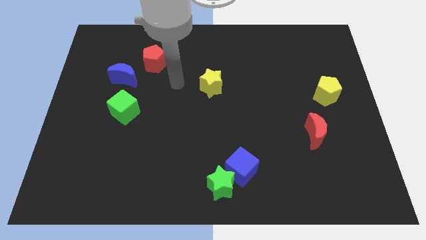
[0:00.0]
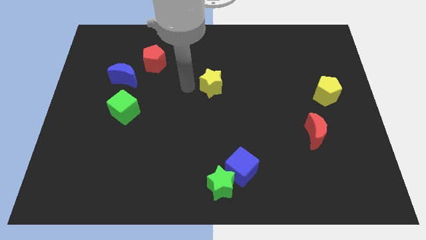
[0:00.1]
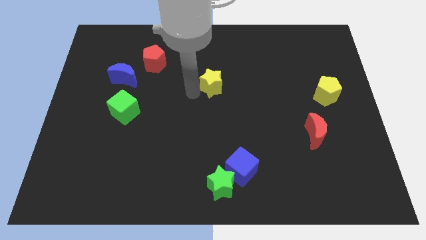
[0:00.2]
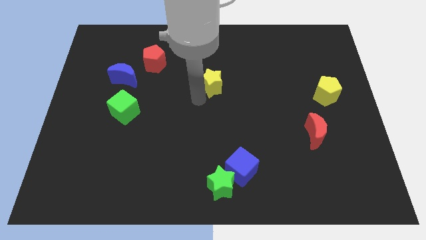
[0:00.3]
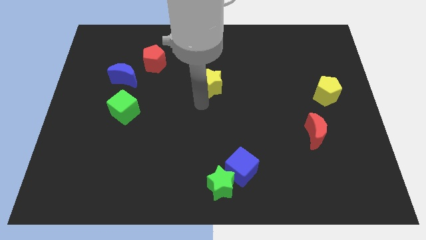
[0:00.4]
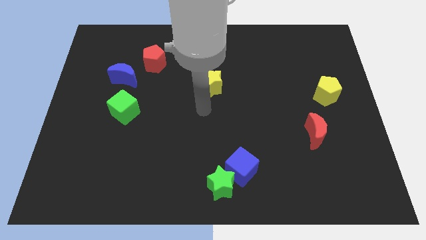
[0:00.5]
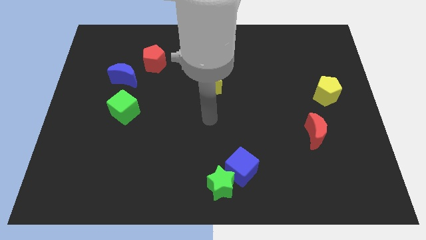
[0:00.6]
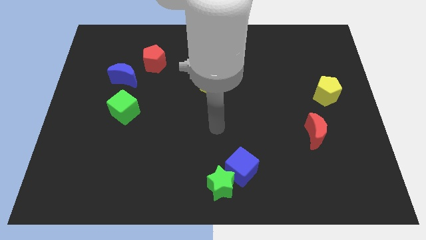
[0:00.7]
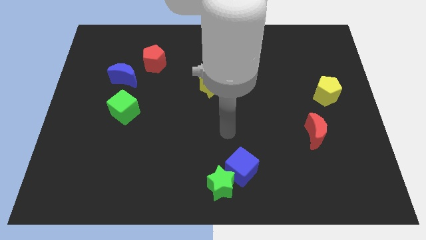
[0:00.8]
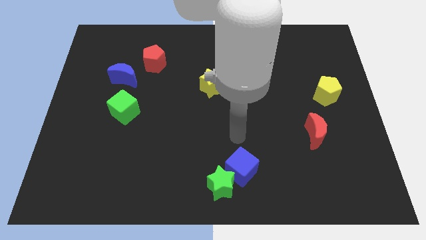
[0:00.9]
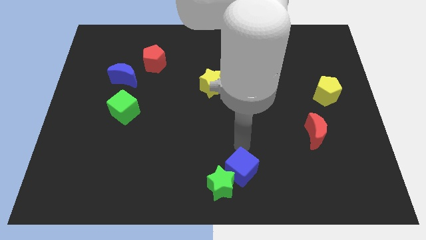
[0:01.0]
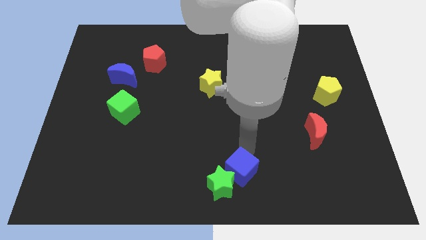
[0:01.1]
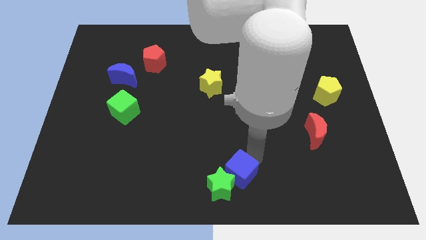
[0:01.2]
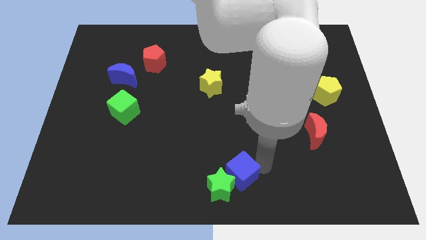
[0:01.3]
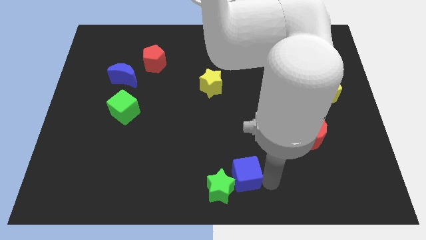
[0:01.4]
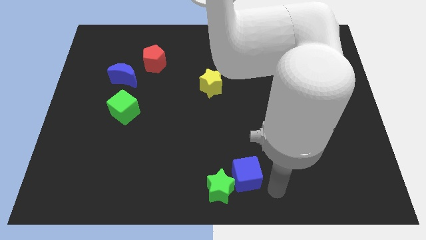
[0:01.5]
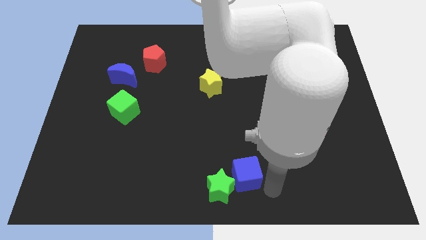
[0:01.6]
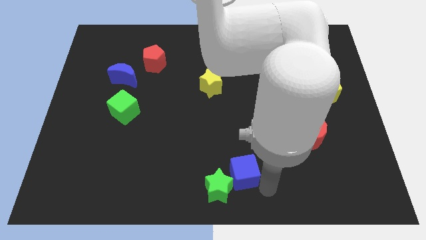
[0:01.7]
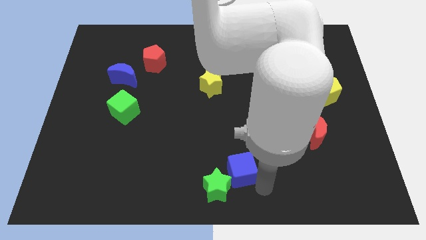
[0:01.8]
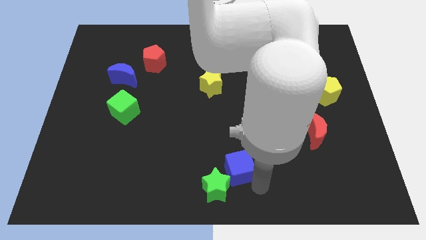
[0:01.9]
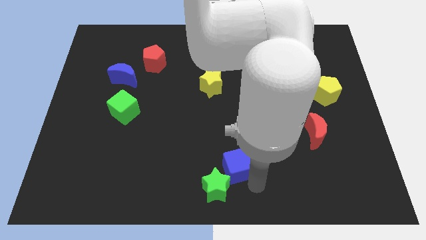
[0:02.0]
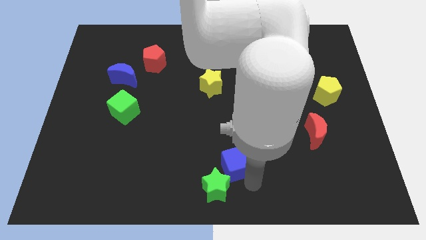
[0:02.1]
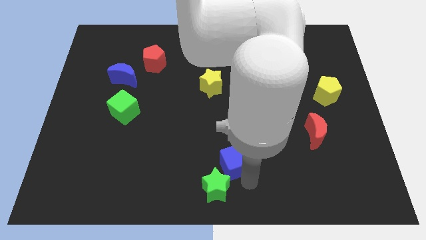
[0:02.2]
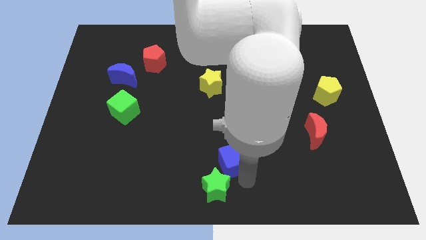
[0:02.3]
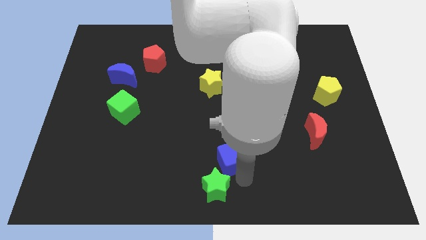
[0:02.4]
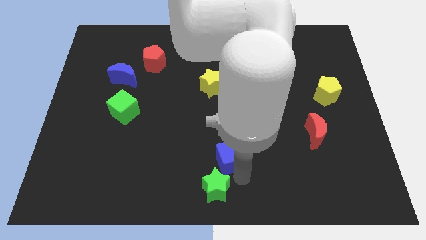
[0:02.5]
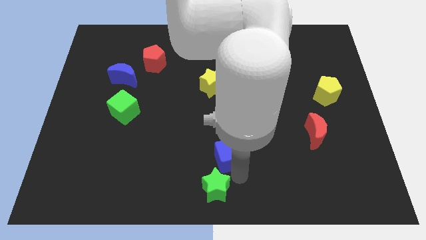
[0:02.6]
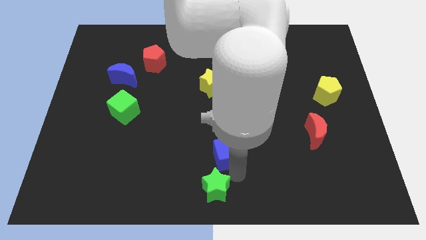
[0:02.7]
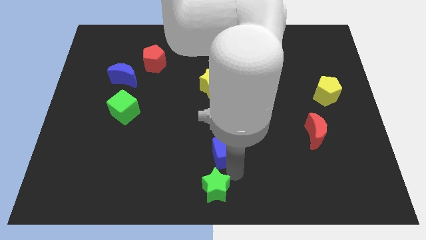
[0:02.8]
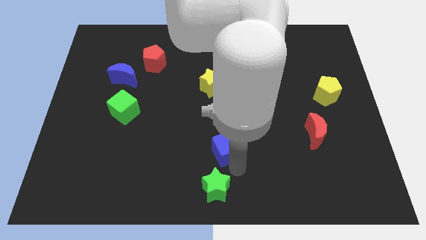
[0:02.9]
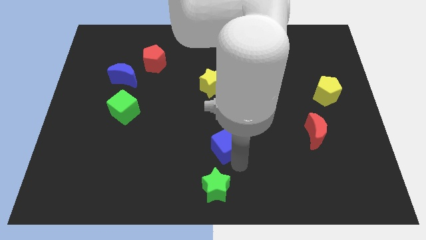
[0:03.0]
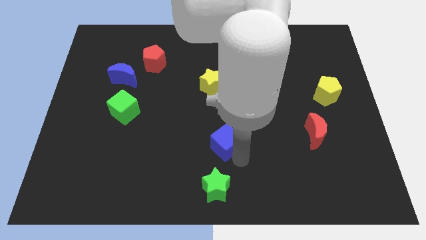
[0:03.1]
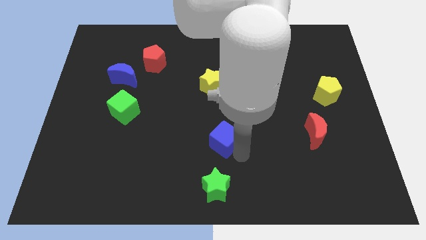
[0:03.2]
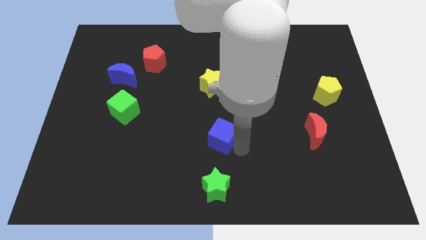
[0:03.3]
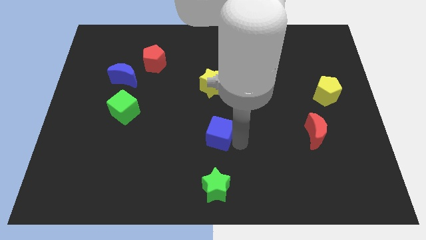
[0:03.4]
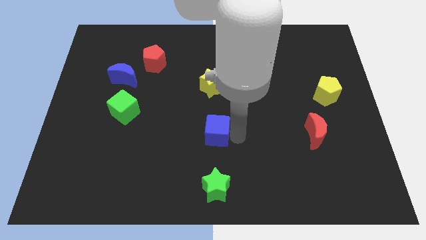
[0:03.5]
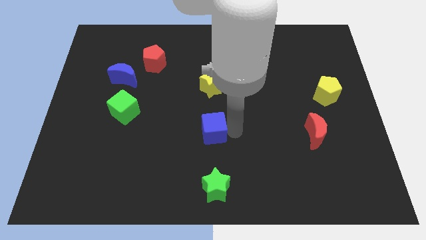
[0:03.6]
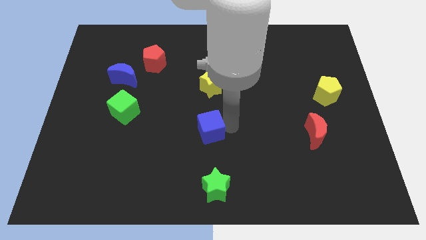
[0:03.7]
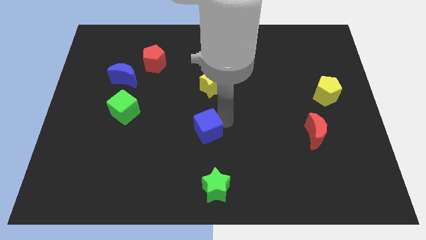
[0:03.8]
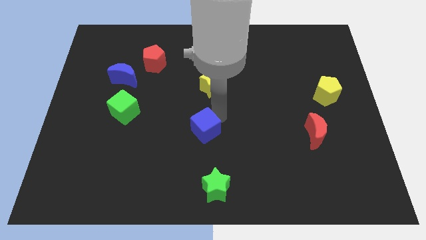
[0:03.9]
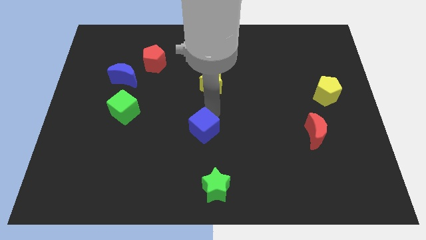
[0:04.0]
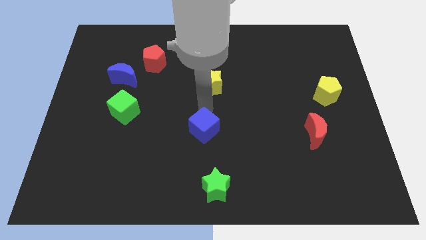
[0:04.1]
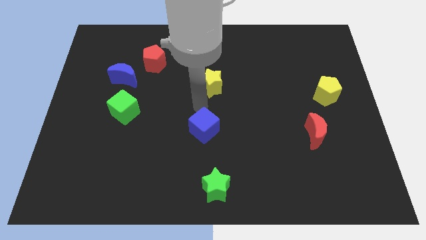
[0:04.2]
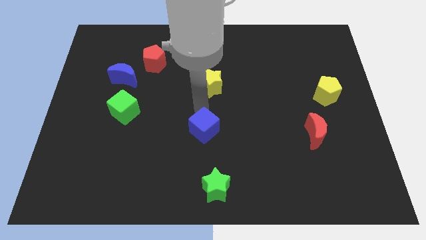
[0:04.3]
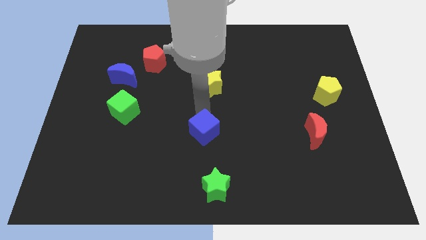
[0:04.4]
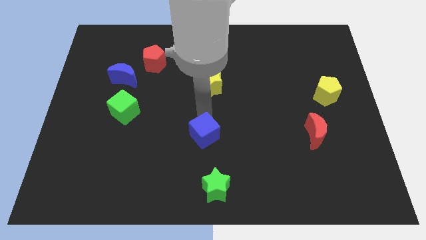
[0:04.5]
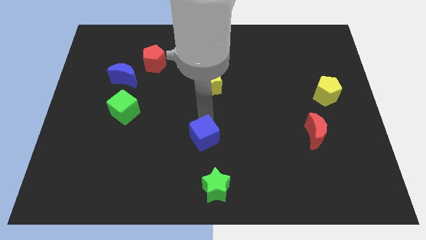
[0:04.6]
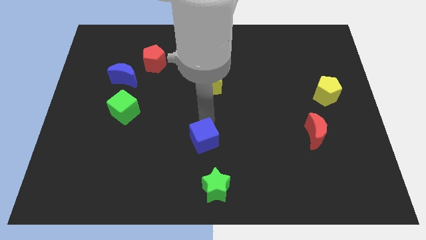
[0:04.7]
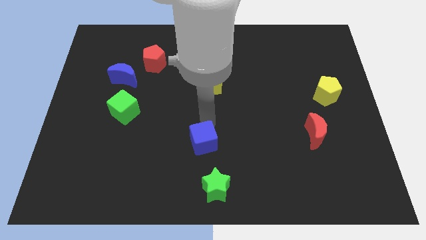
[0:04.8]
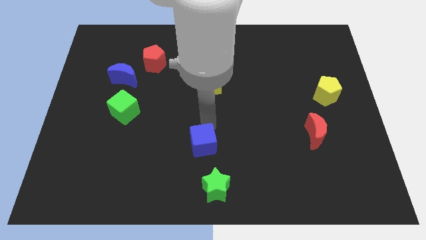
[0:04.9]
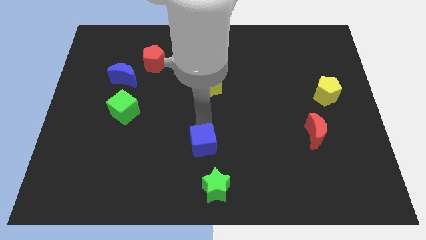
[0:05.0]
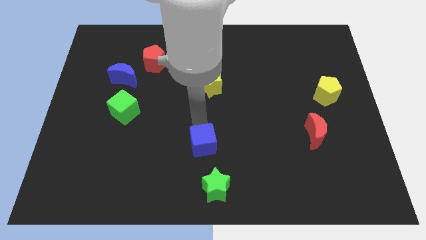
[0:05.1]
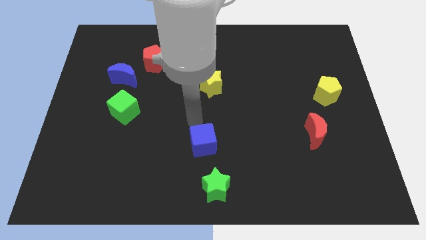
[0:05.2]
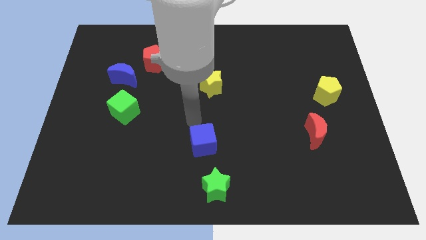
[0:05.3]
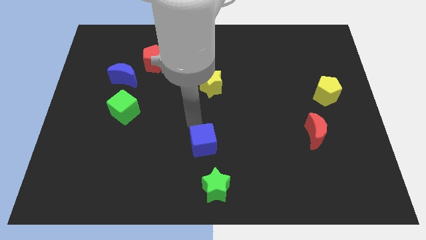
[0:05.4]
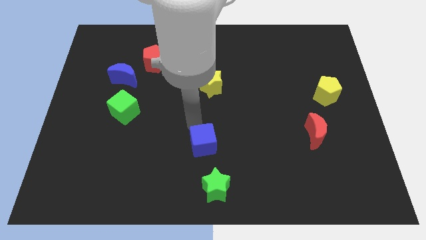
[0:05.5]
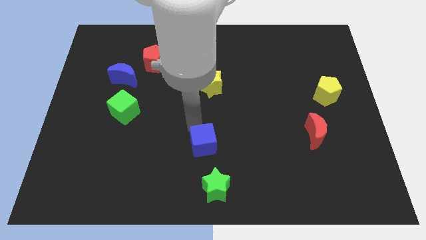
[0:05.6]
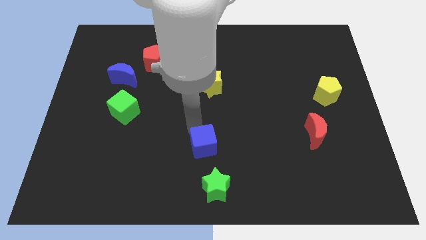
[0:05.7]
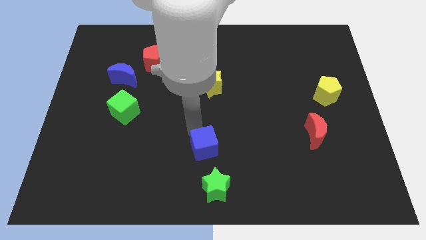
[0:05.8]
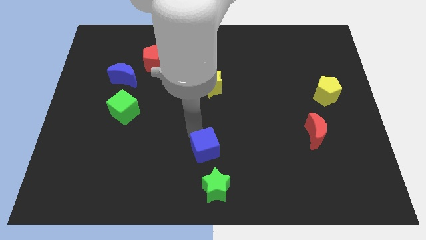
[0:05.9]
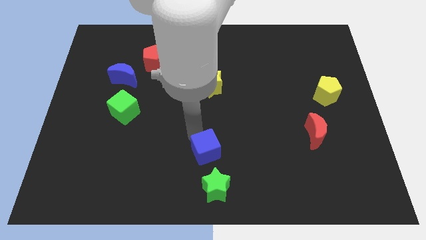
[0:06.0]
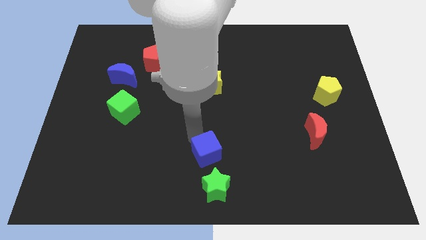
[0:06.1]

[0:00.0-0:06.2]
slide the blue cube a little bit left

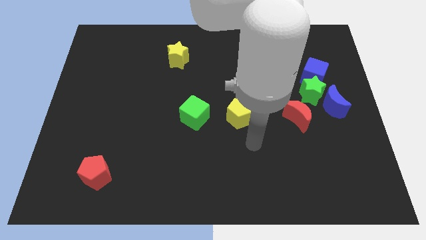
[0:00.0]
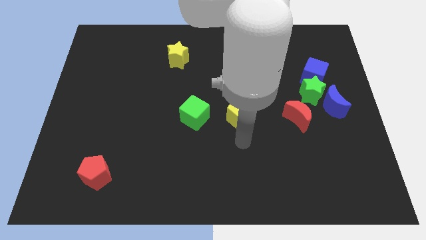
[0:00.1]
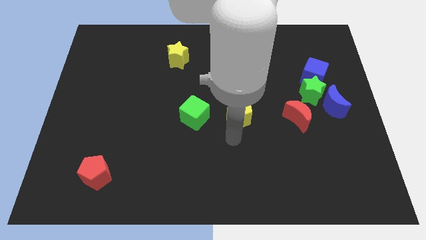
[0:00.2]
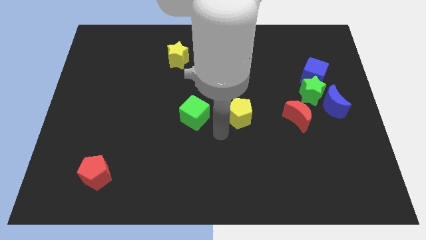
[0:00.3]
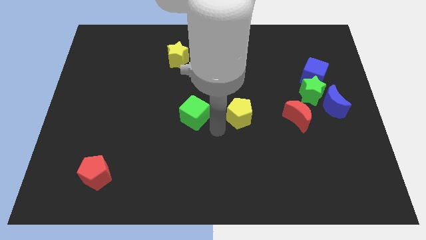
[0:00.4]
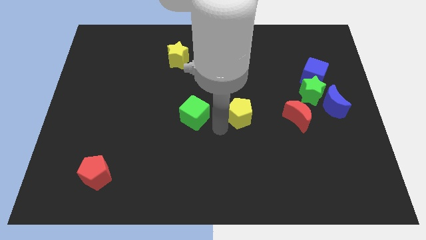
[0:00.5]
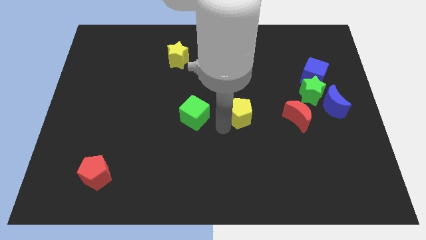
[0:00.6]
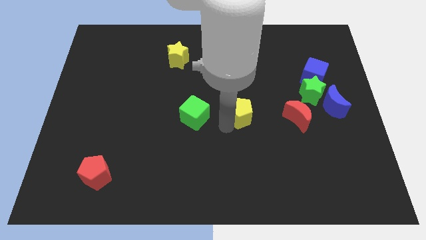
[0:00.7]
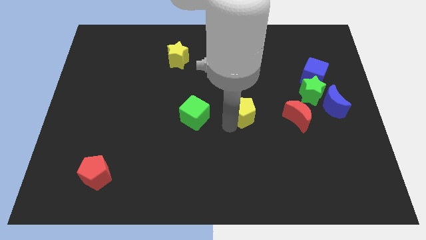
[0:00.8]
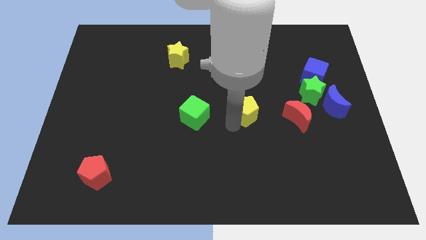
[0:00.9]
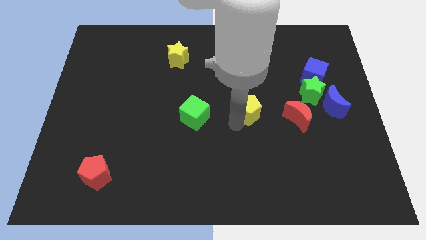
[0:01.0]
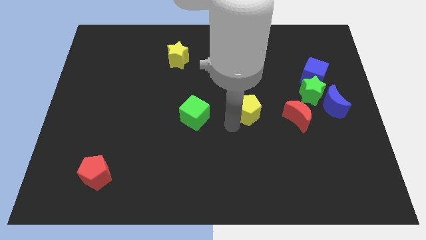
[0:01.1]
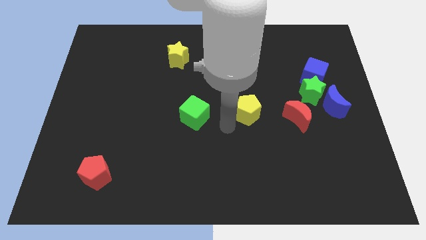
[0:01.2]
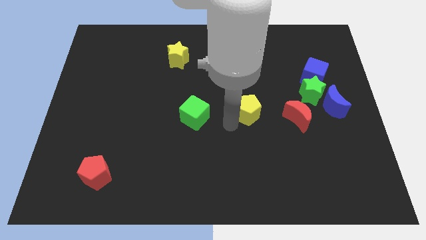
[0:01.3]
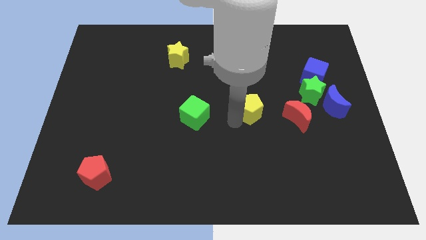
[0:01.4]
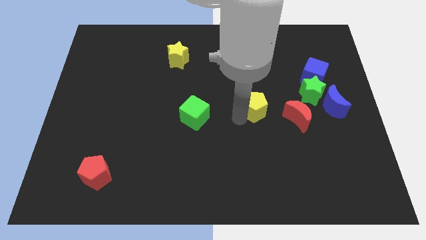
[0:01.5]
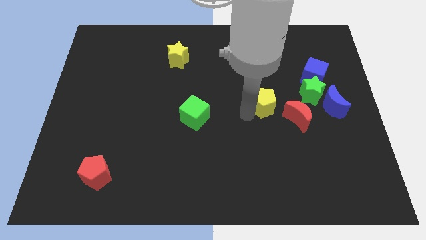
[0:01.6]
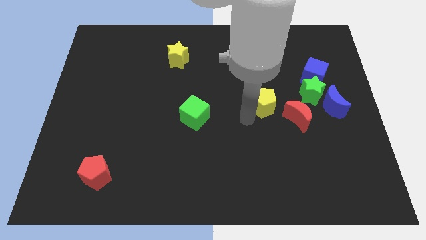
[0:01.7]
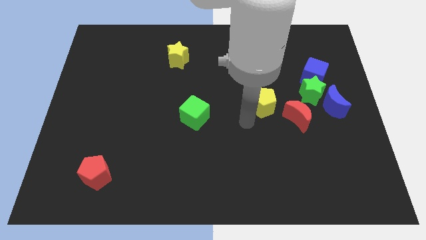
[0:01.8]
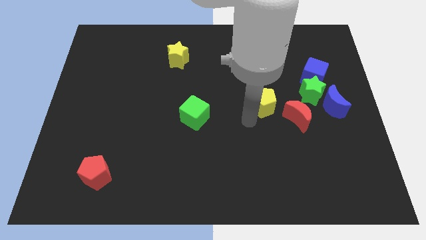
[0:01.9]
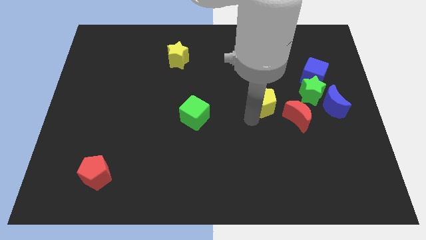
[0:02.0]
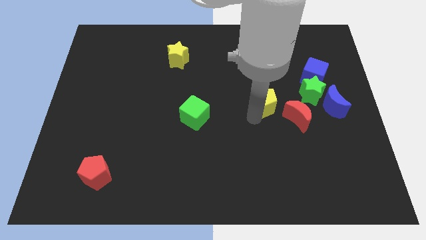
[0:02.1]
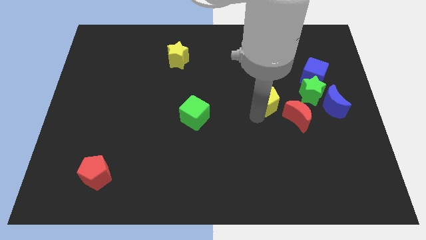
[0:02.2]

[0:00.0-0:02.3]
slide the yellow pentagon somewhat diagonally upwards and right

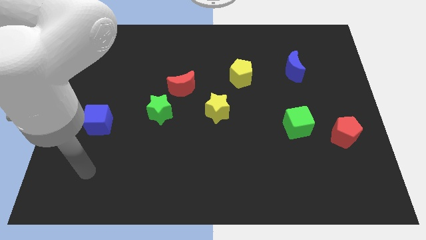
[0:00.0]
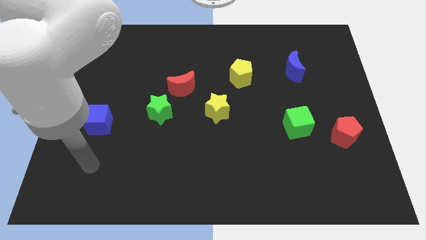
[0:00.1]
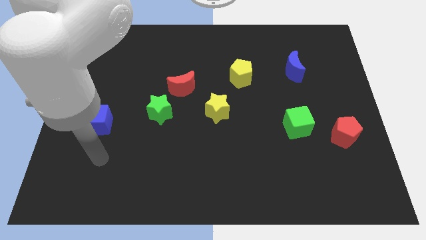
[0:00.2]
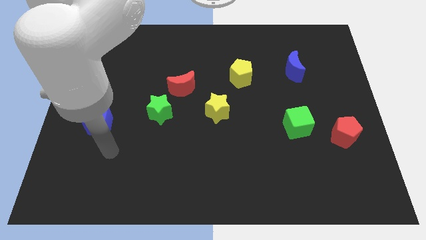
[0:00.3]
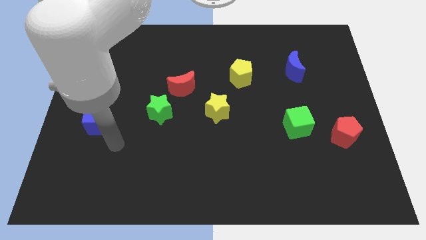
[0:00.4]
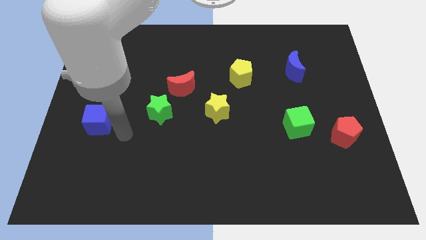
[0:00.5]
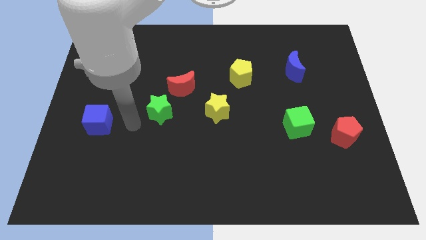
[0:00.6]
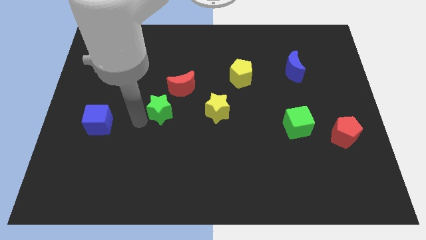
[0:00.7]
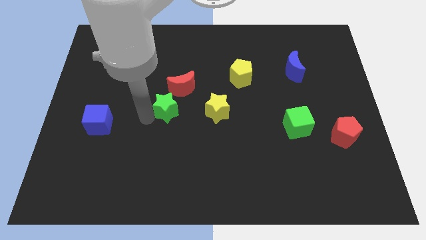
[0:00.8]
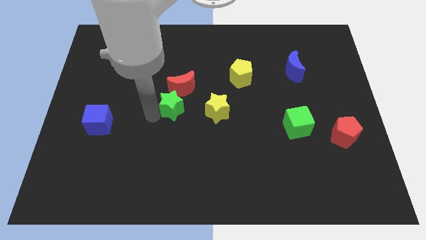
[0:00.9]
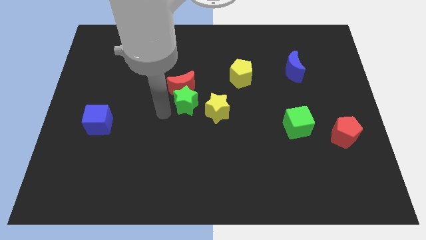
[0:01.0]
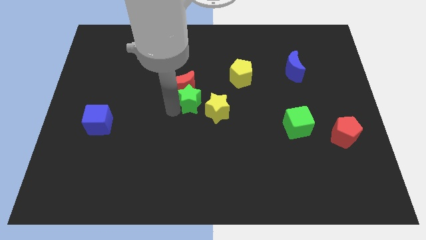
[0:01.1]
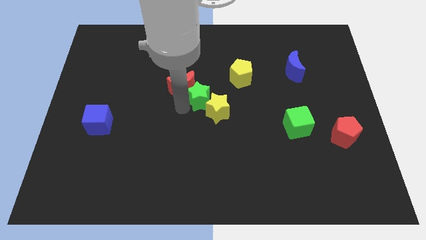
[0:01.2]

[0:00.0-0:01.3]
push the green star a bit upwards and to the right diagonally
